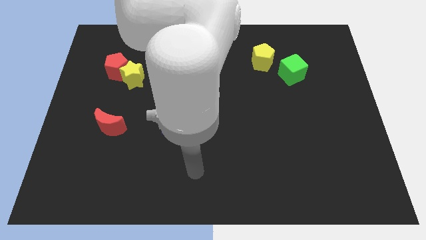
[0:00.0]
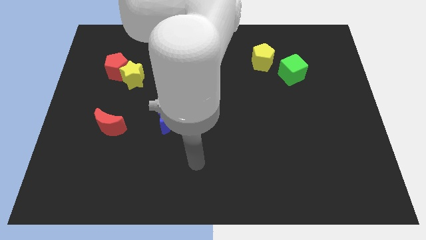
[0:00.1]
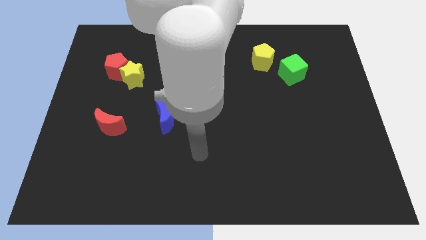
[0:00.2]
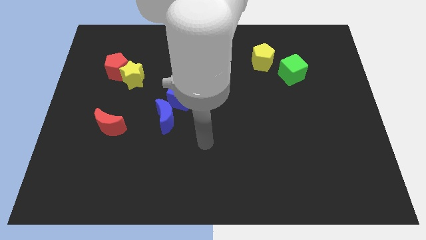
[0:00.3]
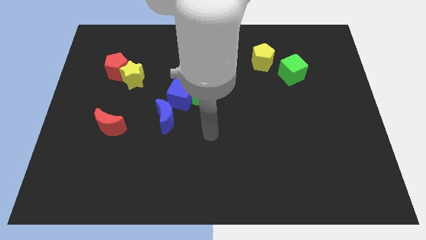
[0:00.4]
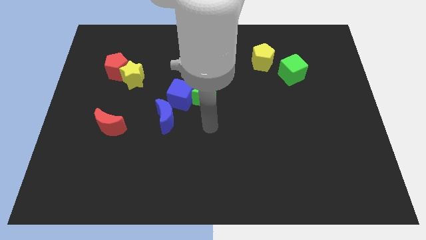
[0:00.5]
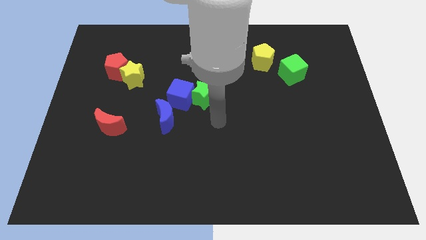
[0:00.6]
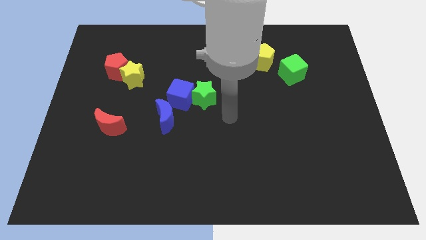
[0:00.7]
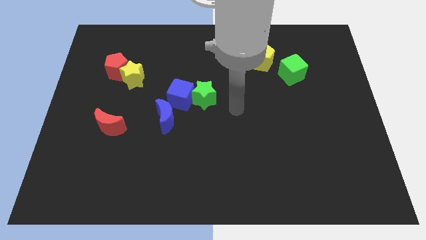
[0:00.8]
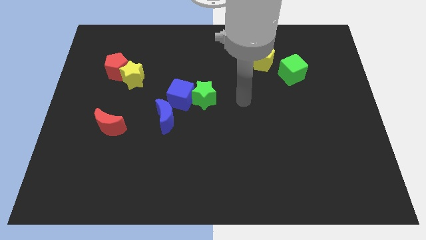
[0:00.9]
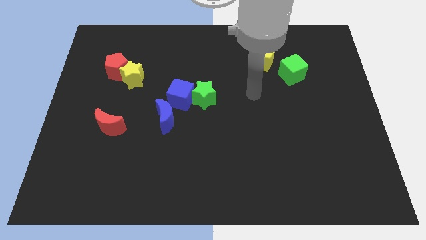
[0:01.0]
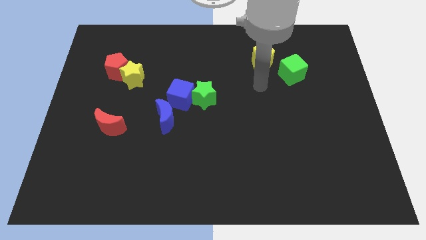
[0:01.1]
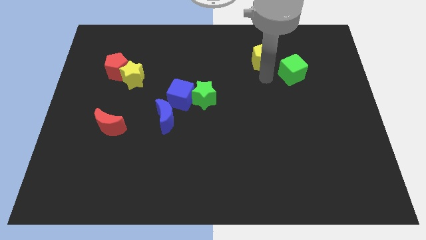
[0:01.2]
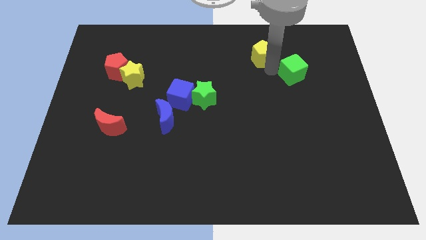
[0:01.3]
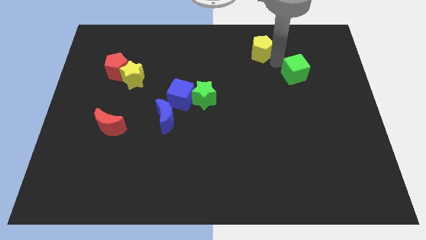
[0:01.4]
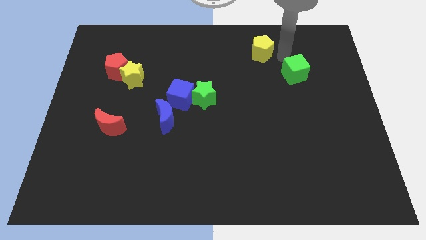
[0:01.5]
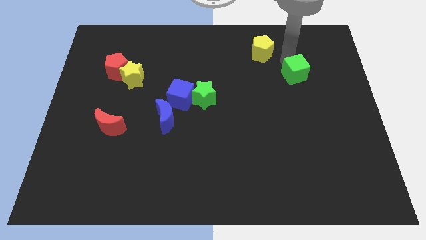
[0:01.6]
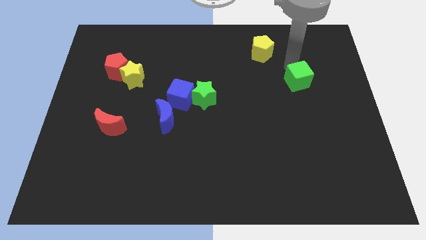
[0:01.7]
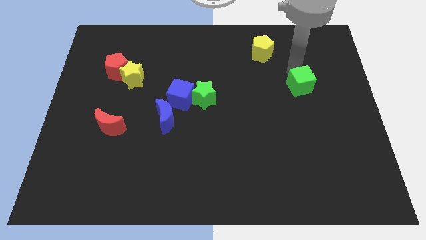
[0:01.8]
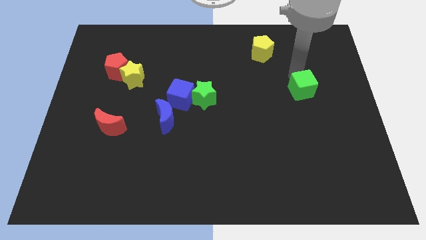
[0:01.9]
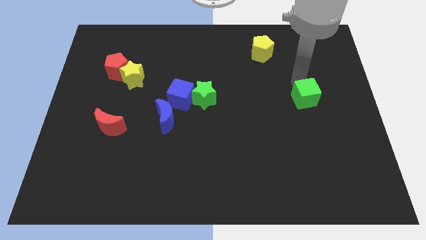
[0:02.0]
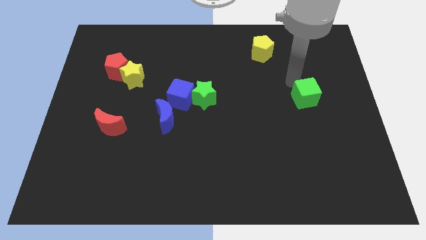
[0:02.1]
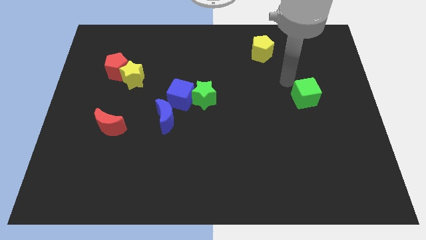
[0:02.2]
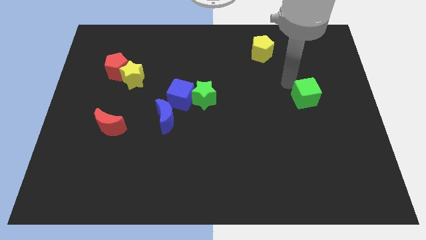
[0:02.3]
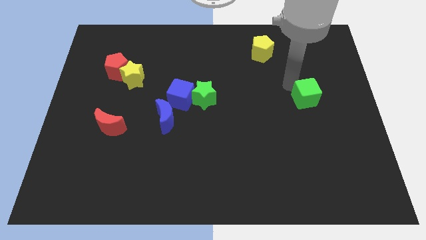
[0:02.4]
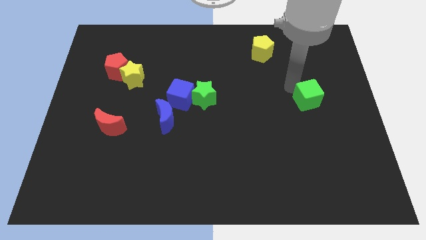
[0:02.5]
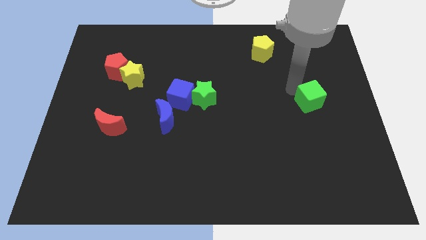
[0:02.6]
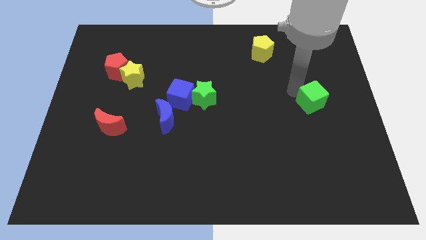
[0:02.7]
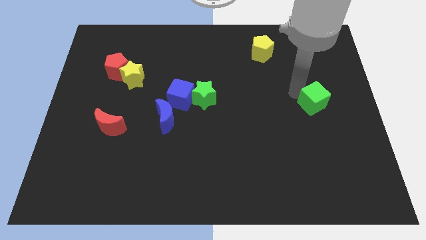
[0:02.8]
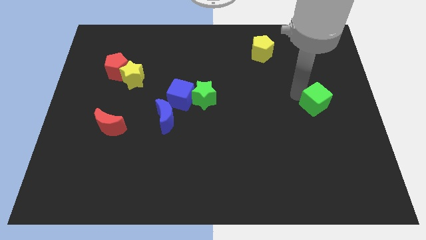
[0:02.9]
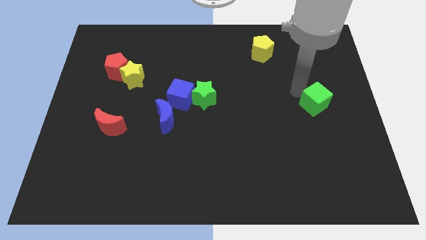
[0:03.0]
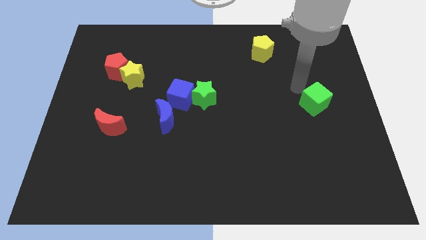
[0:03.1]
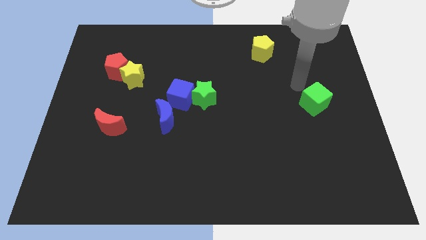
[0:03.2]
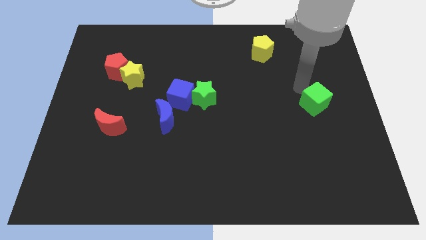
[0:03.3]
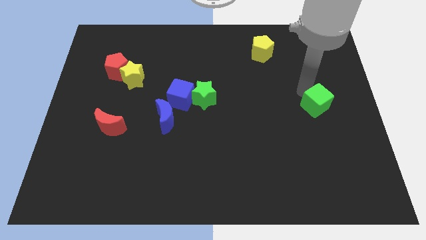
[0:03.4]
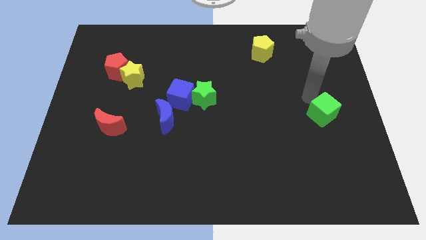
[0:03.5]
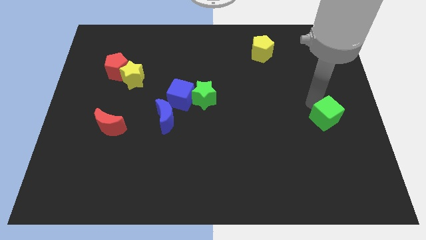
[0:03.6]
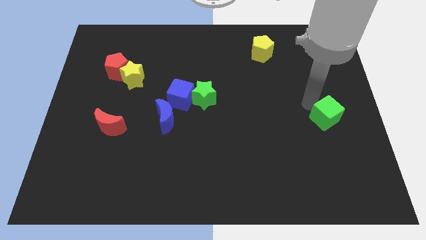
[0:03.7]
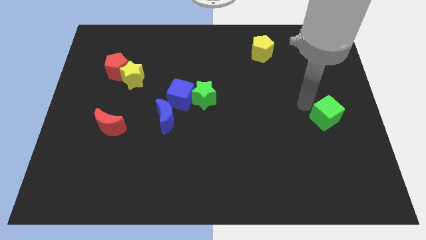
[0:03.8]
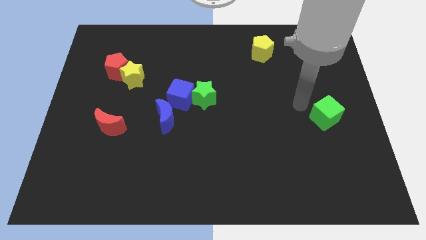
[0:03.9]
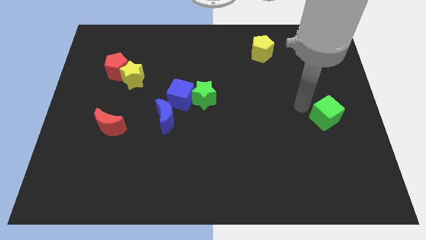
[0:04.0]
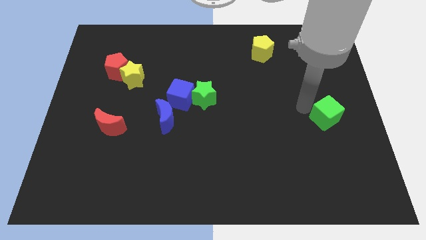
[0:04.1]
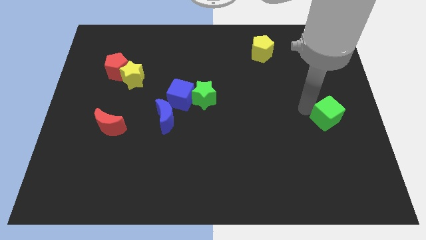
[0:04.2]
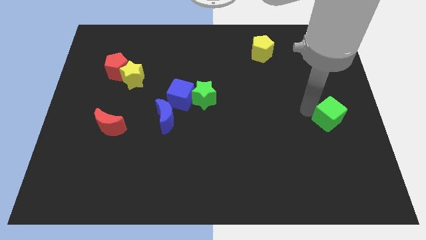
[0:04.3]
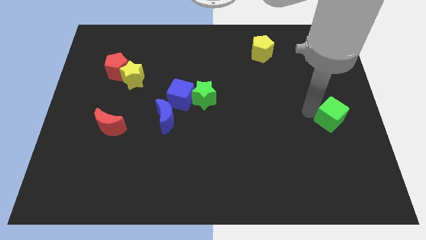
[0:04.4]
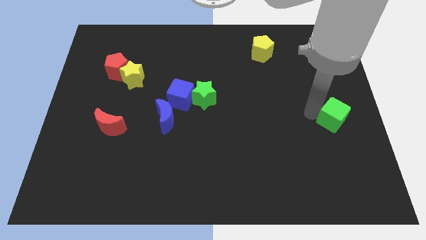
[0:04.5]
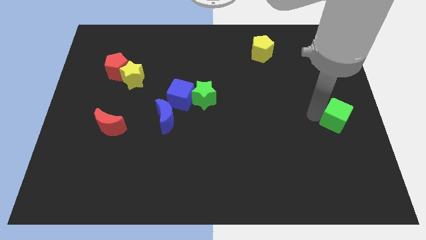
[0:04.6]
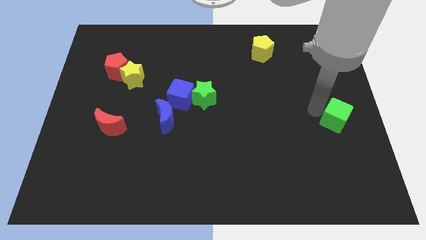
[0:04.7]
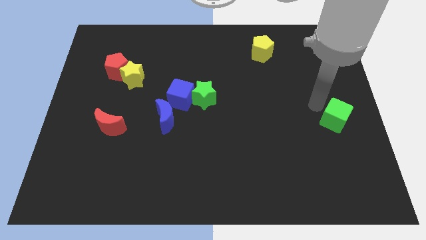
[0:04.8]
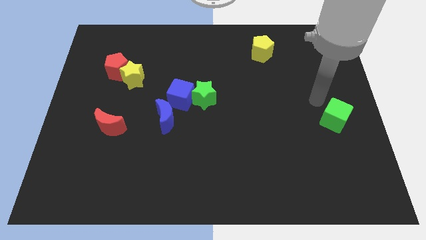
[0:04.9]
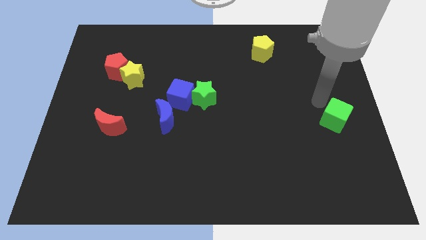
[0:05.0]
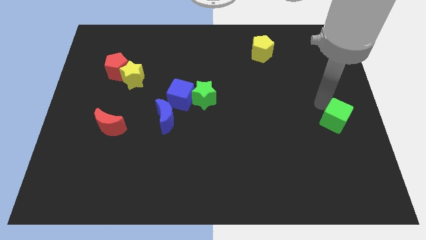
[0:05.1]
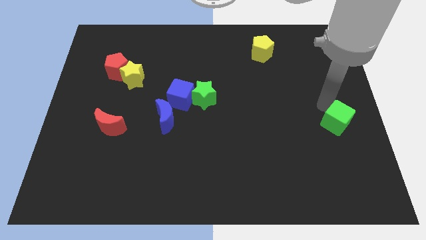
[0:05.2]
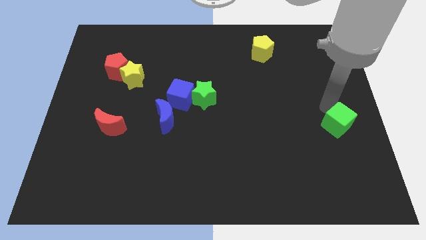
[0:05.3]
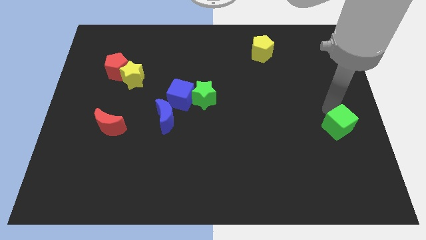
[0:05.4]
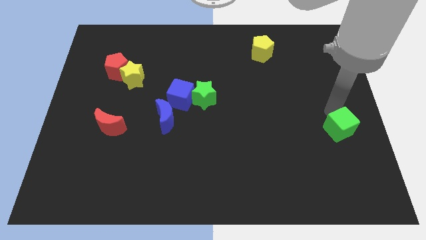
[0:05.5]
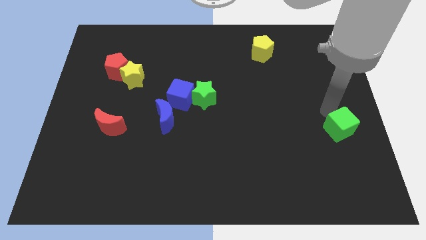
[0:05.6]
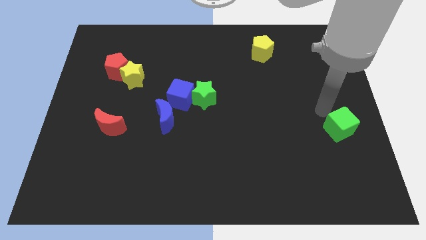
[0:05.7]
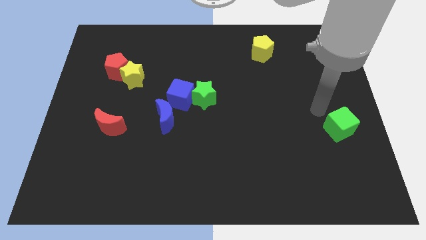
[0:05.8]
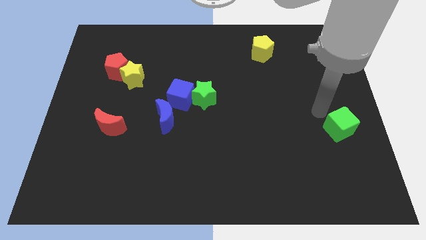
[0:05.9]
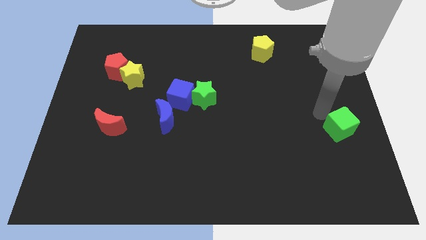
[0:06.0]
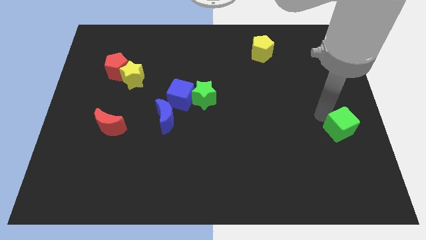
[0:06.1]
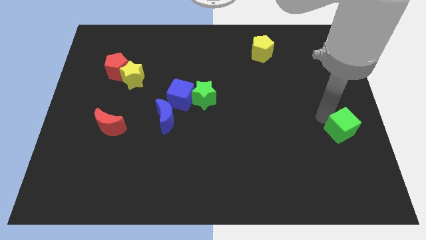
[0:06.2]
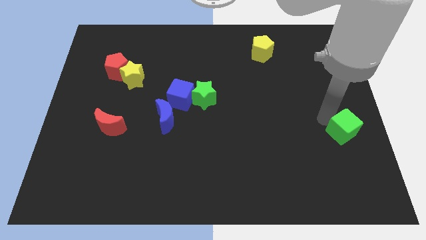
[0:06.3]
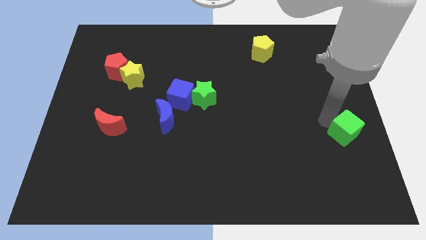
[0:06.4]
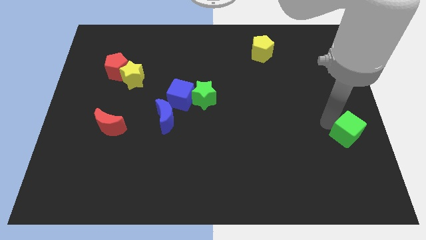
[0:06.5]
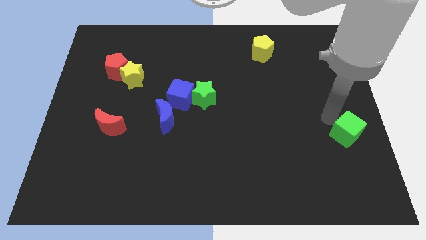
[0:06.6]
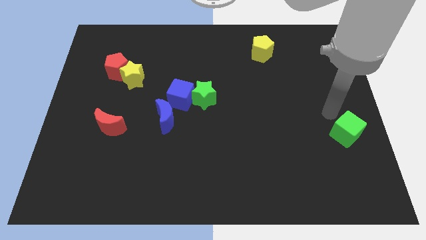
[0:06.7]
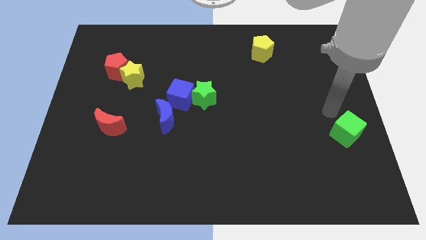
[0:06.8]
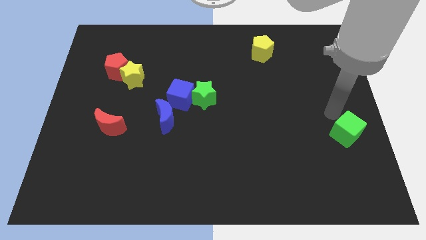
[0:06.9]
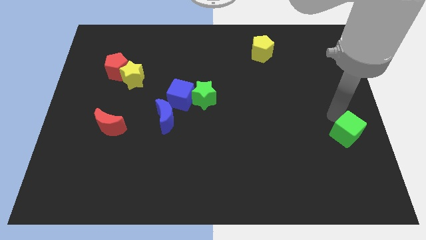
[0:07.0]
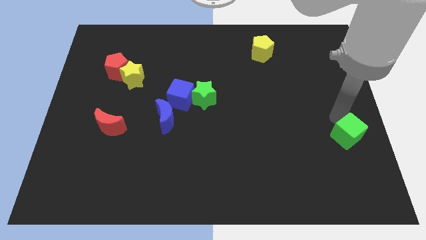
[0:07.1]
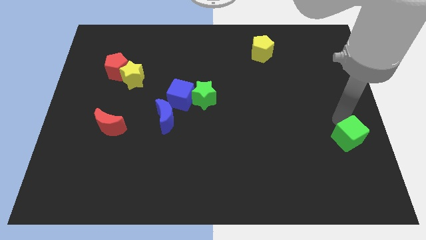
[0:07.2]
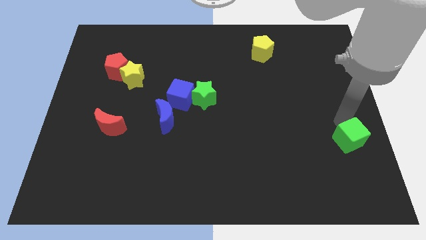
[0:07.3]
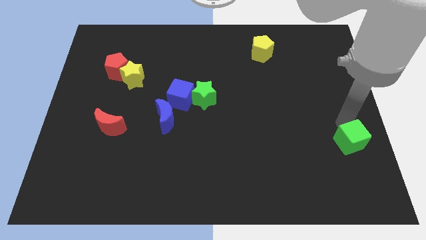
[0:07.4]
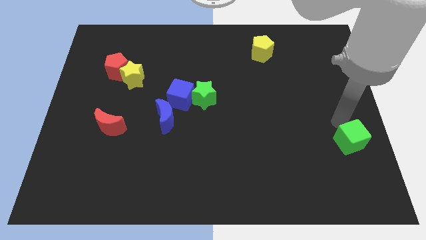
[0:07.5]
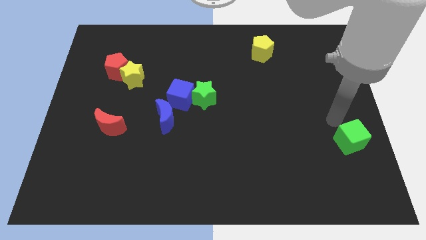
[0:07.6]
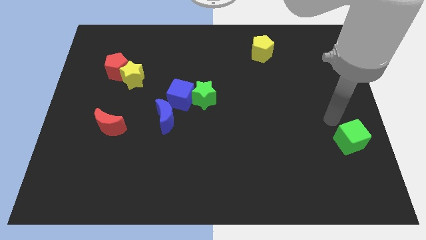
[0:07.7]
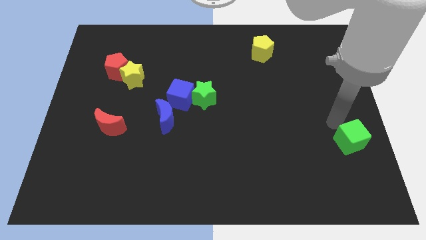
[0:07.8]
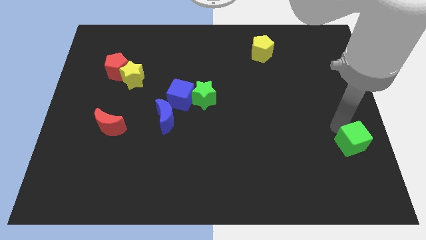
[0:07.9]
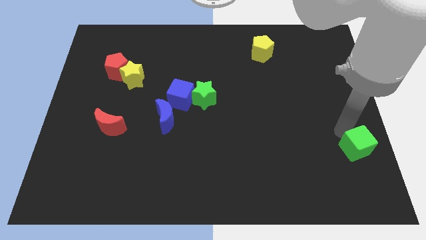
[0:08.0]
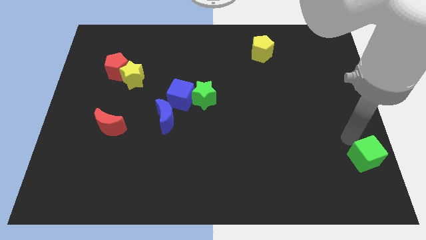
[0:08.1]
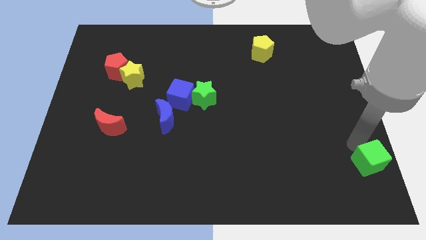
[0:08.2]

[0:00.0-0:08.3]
slide the green cube to the bottom right
